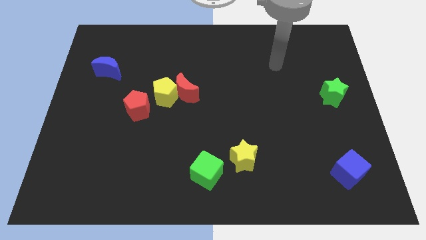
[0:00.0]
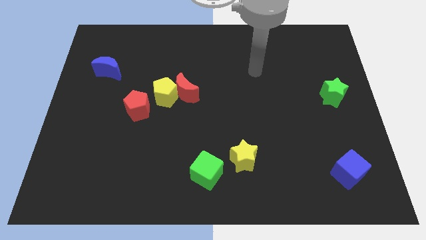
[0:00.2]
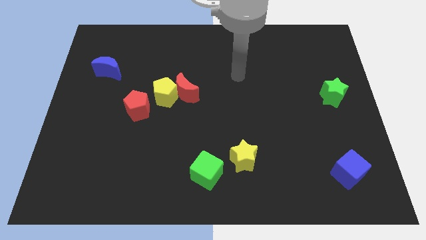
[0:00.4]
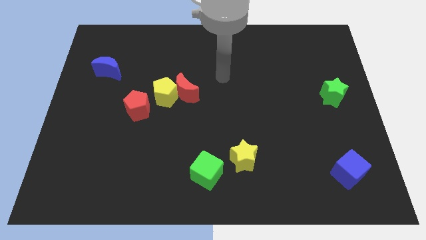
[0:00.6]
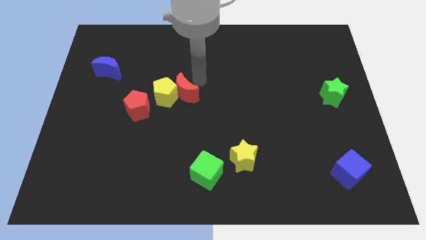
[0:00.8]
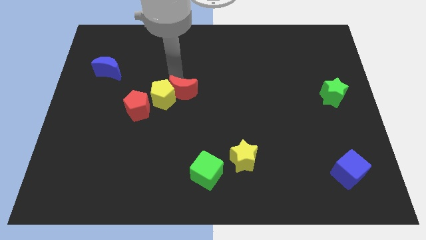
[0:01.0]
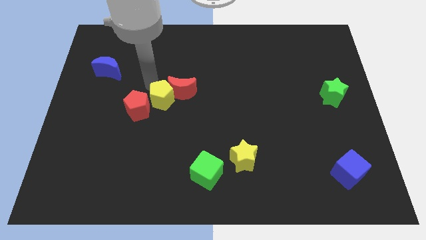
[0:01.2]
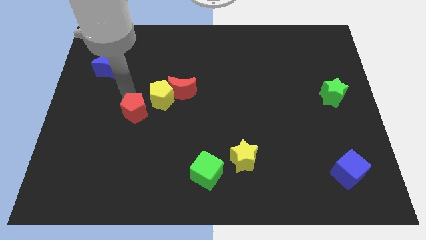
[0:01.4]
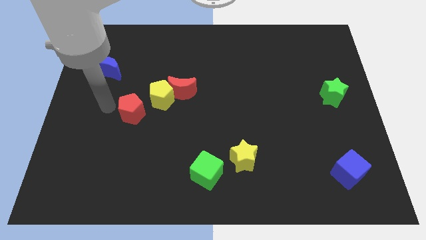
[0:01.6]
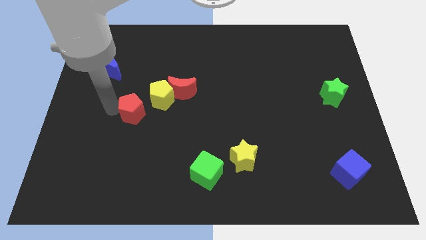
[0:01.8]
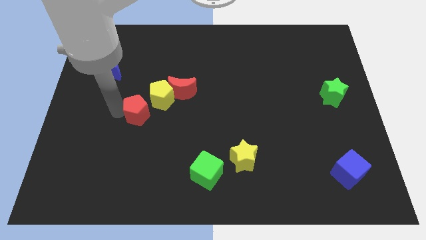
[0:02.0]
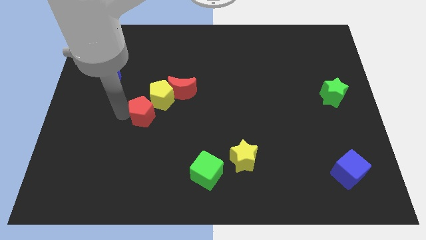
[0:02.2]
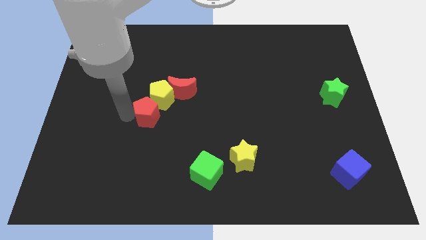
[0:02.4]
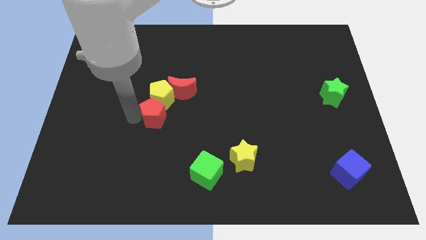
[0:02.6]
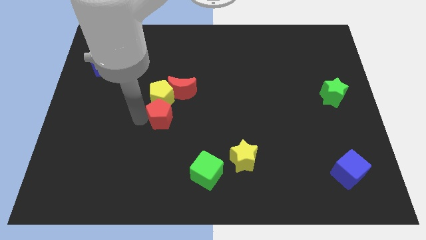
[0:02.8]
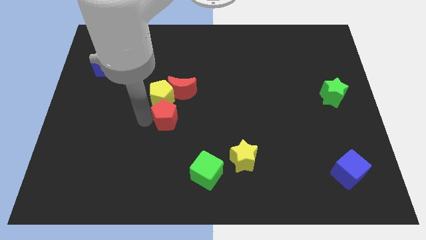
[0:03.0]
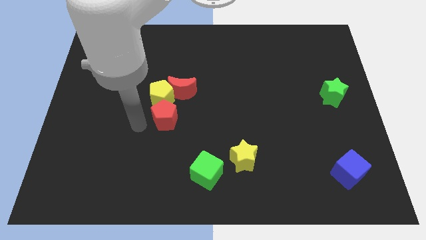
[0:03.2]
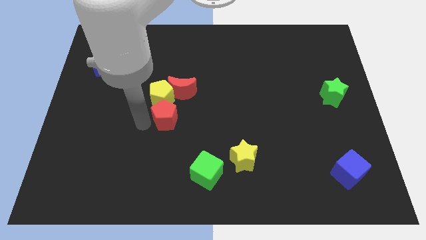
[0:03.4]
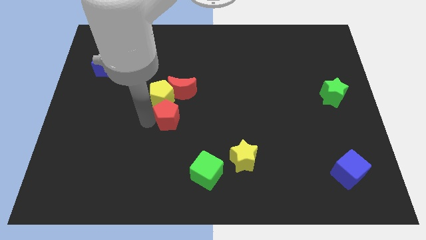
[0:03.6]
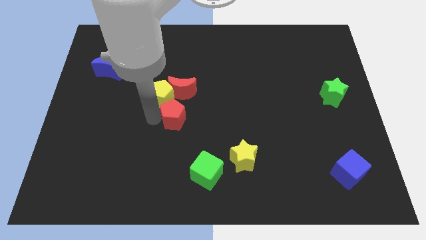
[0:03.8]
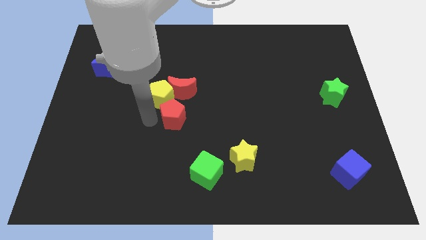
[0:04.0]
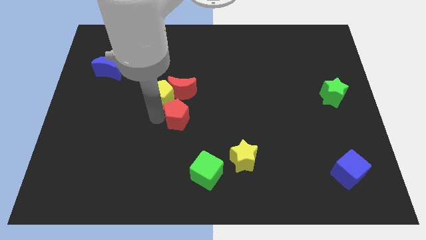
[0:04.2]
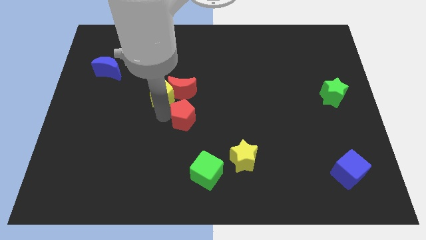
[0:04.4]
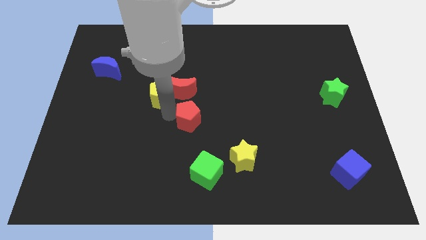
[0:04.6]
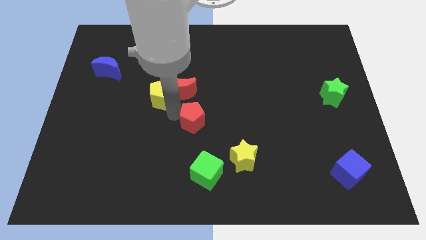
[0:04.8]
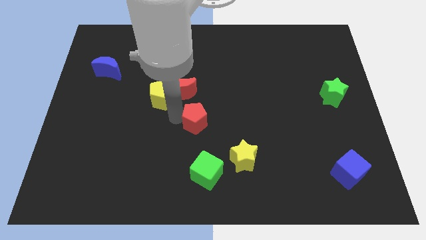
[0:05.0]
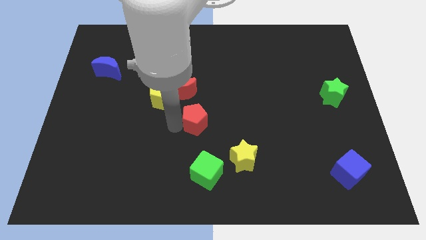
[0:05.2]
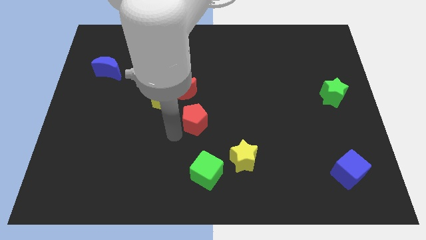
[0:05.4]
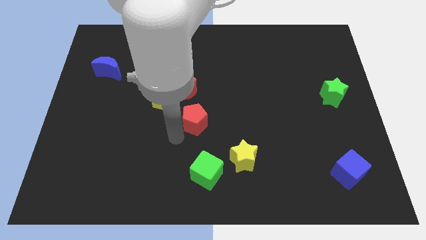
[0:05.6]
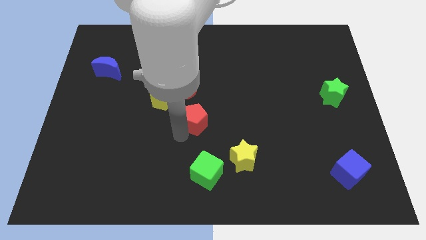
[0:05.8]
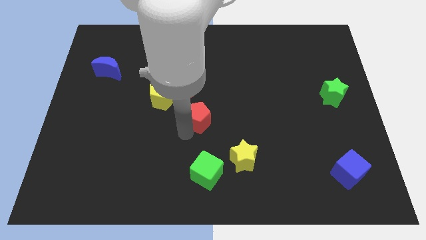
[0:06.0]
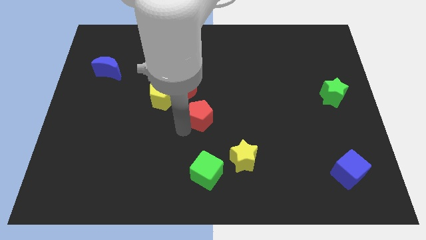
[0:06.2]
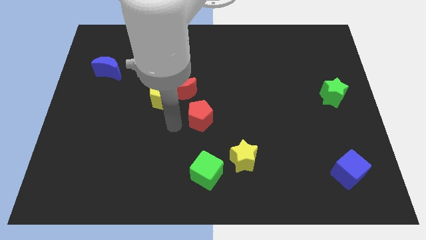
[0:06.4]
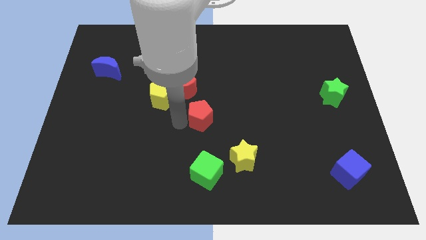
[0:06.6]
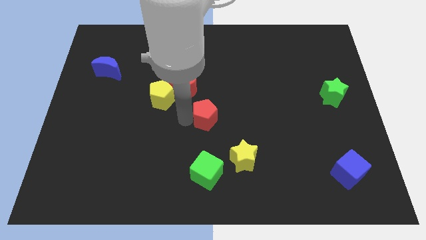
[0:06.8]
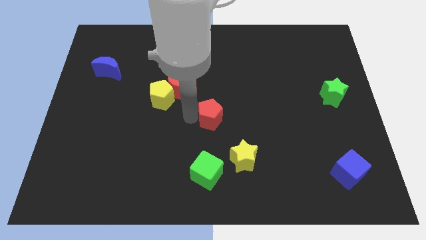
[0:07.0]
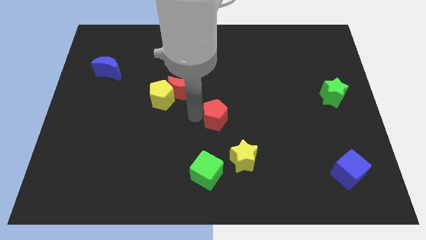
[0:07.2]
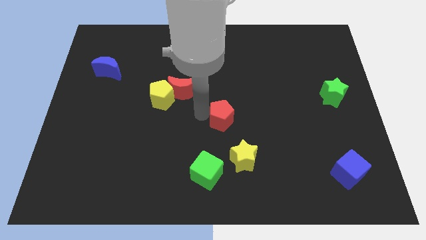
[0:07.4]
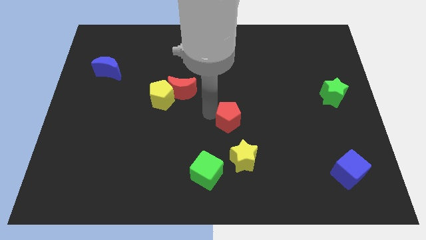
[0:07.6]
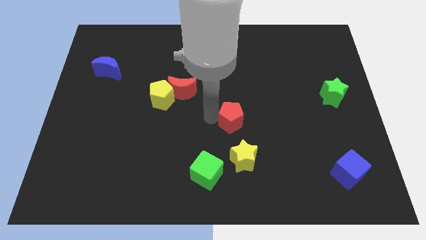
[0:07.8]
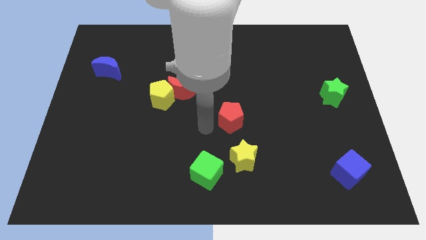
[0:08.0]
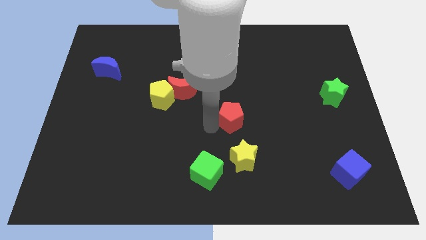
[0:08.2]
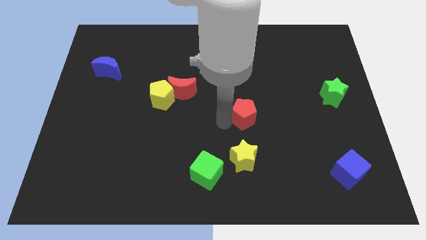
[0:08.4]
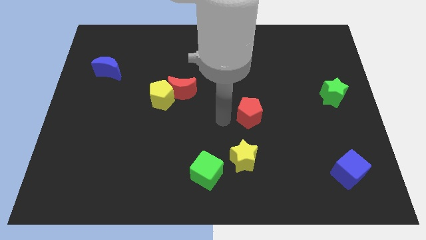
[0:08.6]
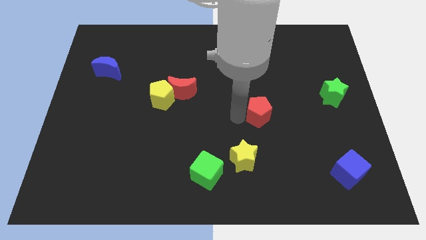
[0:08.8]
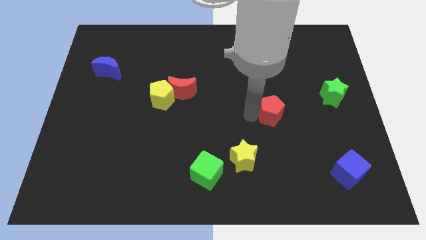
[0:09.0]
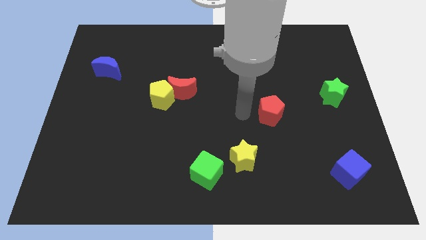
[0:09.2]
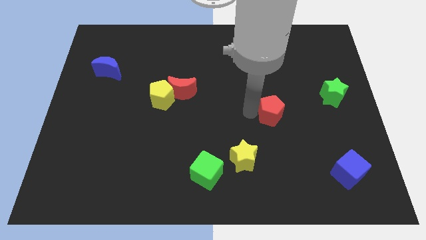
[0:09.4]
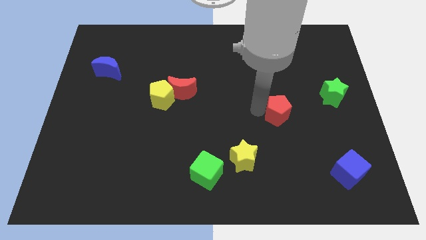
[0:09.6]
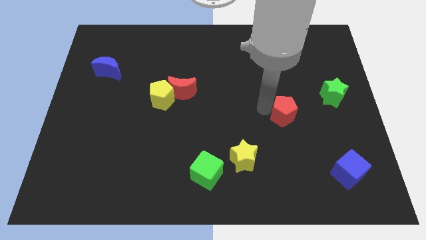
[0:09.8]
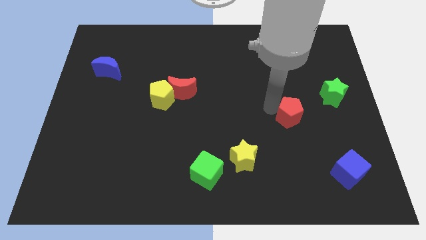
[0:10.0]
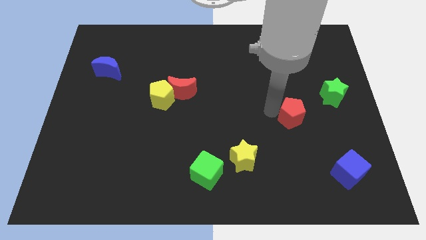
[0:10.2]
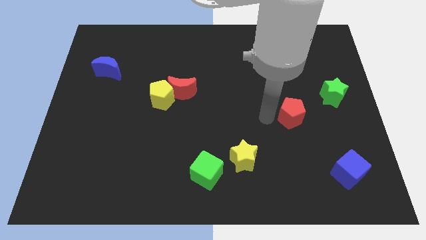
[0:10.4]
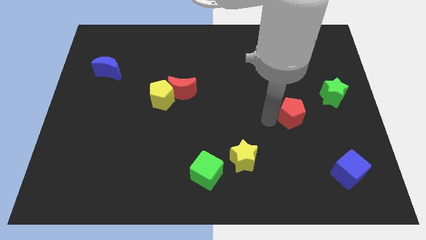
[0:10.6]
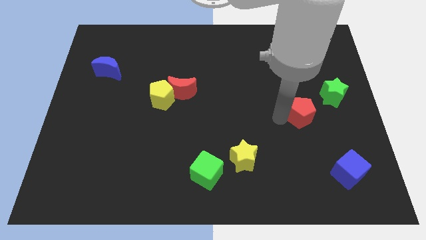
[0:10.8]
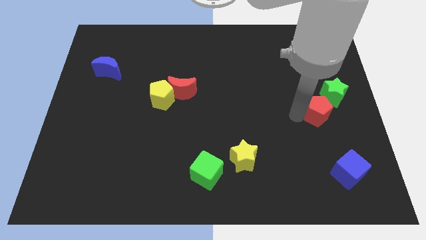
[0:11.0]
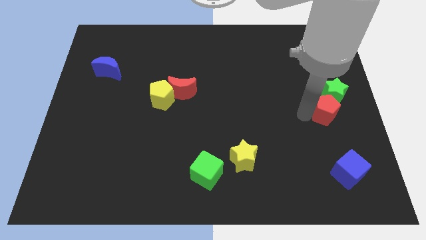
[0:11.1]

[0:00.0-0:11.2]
push the red pentagon to the right side of the board

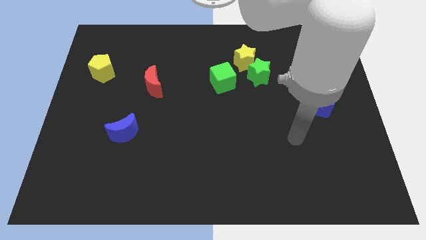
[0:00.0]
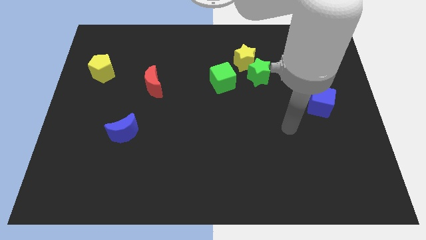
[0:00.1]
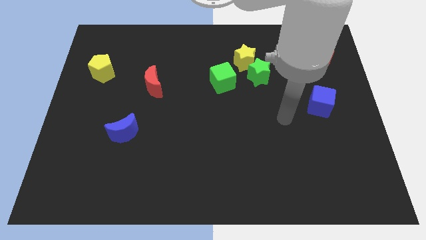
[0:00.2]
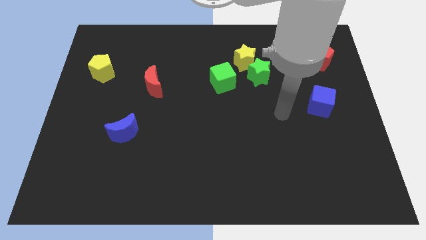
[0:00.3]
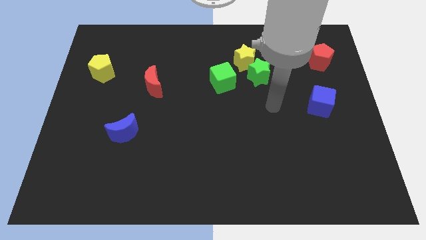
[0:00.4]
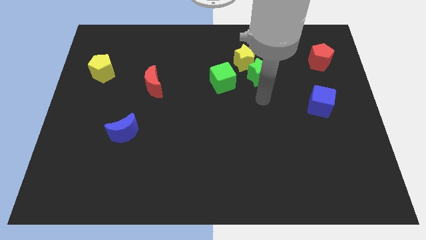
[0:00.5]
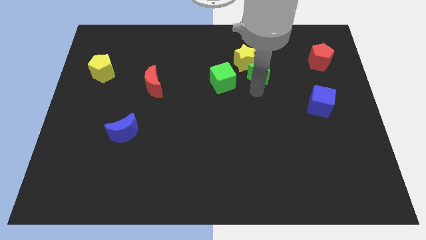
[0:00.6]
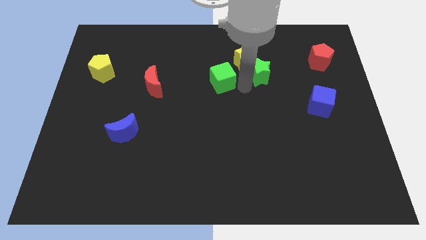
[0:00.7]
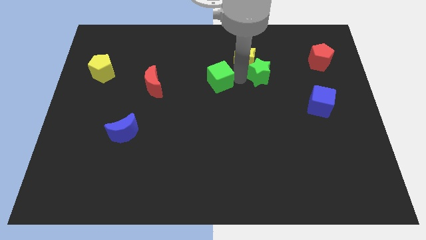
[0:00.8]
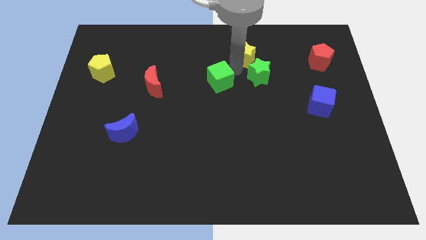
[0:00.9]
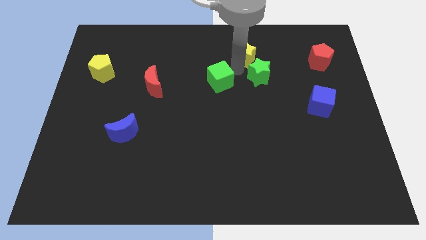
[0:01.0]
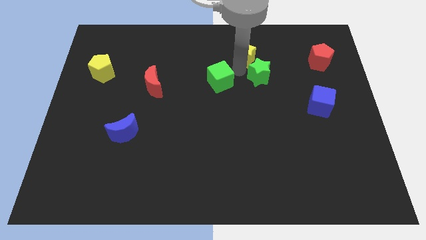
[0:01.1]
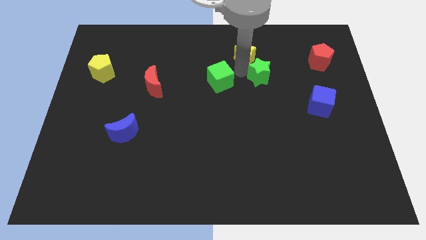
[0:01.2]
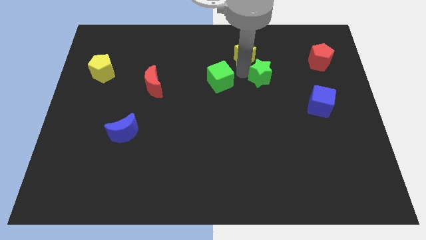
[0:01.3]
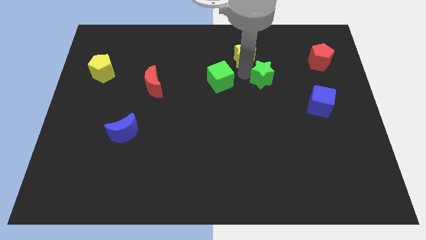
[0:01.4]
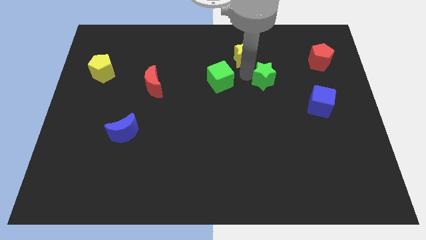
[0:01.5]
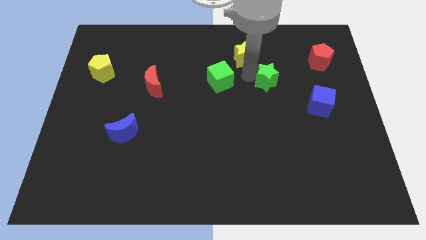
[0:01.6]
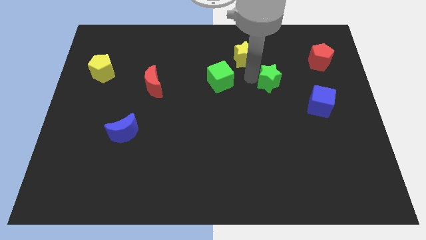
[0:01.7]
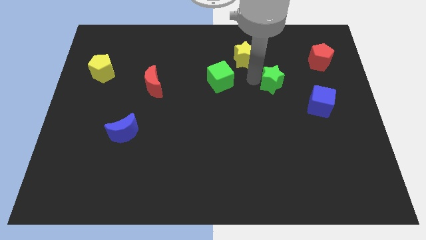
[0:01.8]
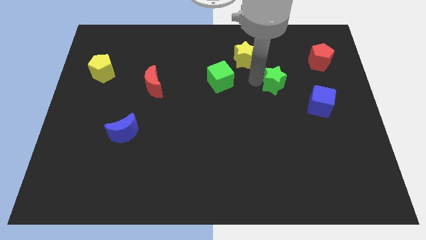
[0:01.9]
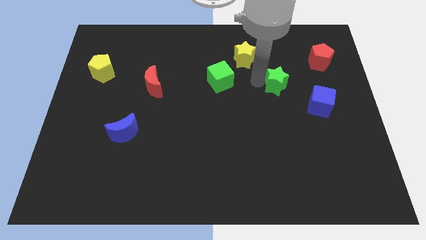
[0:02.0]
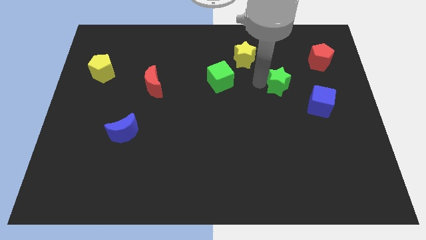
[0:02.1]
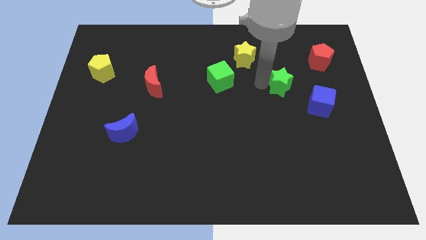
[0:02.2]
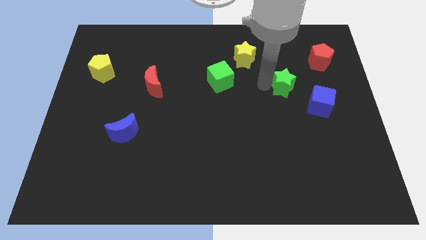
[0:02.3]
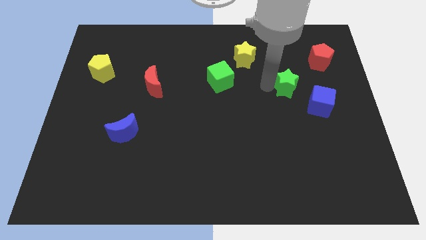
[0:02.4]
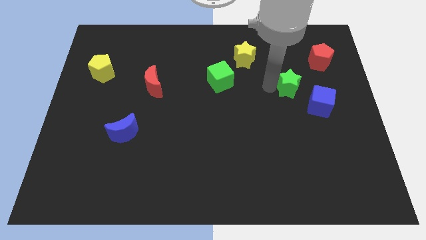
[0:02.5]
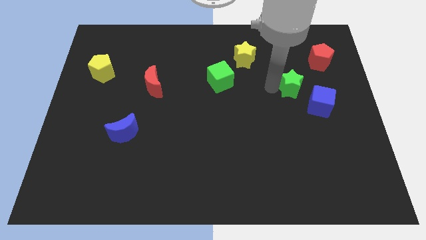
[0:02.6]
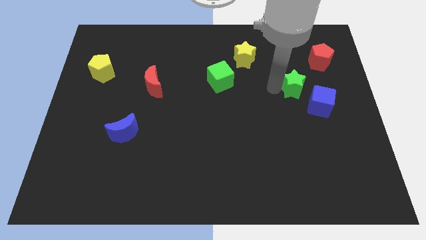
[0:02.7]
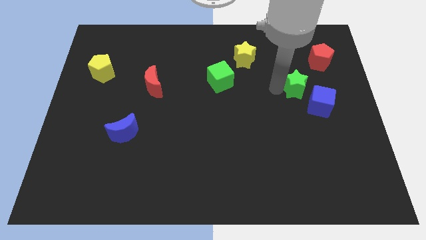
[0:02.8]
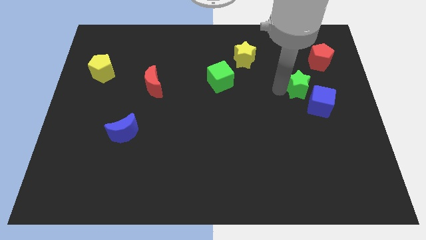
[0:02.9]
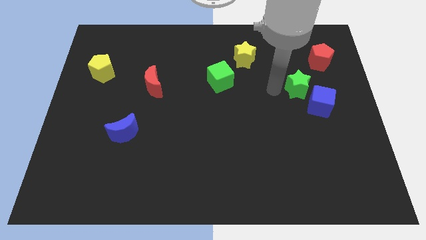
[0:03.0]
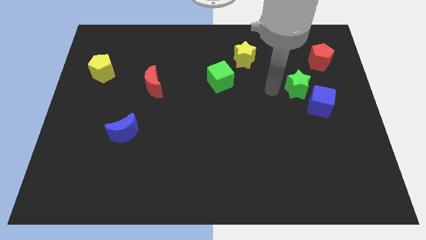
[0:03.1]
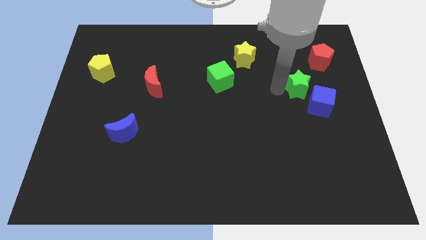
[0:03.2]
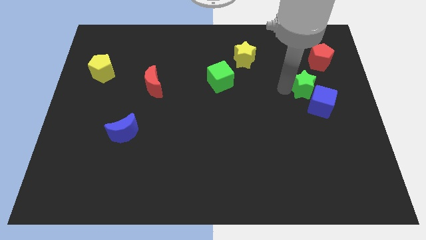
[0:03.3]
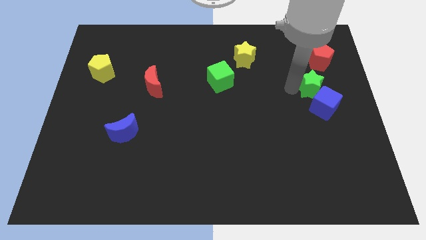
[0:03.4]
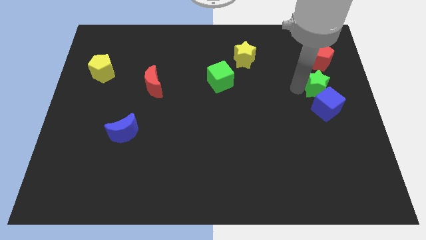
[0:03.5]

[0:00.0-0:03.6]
put the green star to the right side of the board
